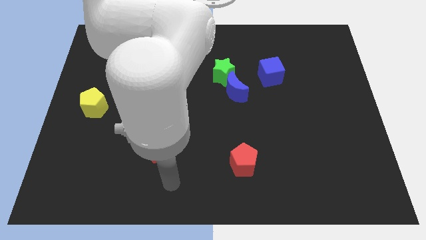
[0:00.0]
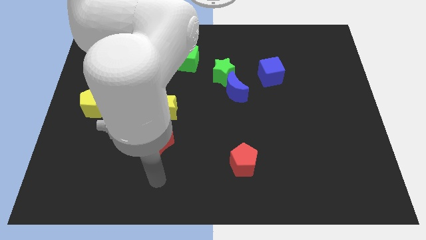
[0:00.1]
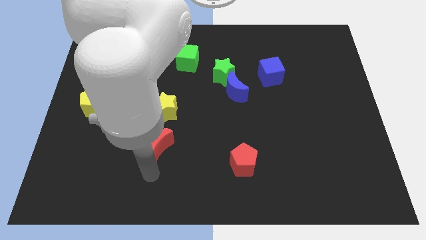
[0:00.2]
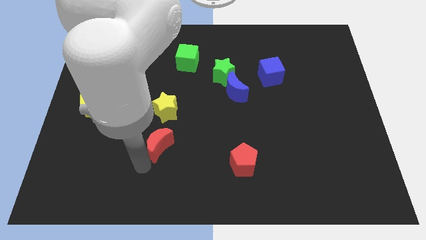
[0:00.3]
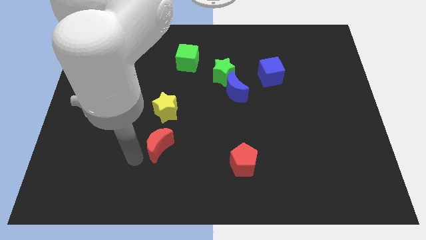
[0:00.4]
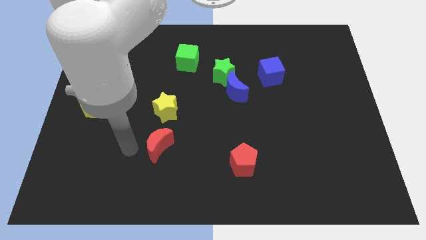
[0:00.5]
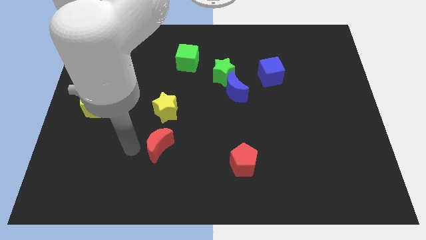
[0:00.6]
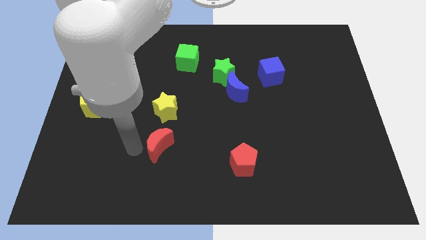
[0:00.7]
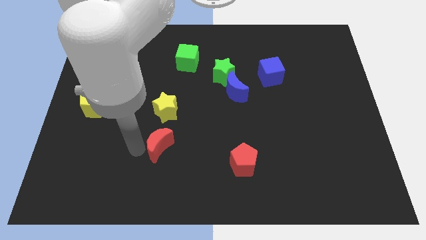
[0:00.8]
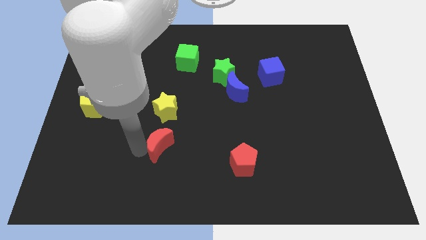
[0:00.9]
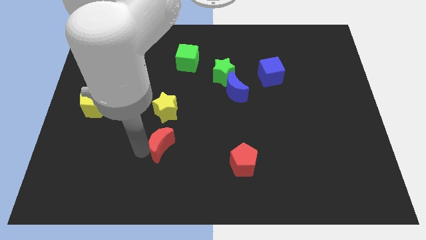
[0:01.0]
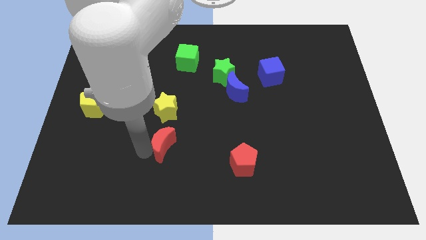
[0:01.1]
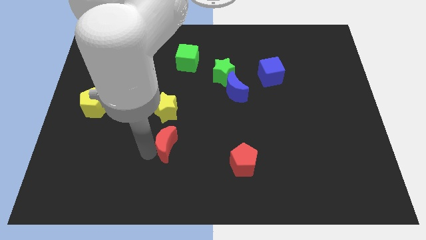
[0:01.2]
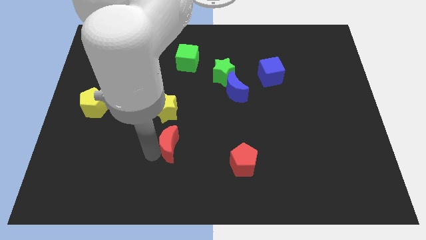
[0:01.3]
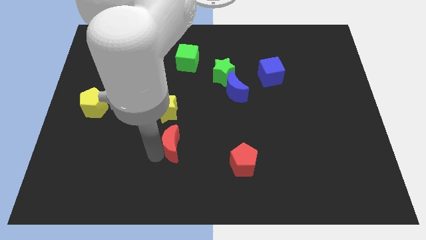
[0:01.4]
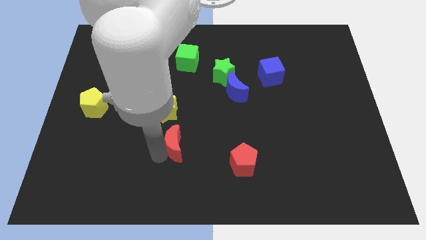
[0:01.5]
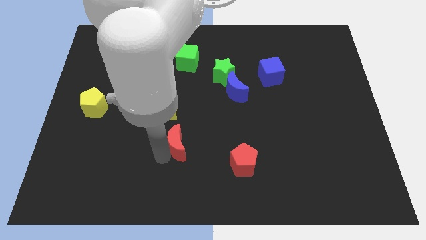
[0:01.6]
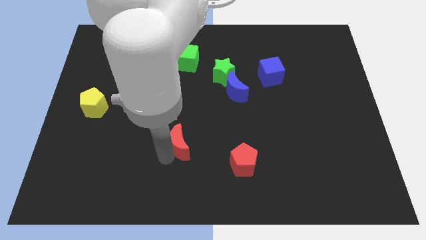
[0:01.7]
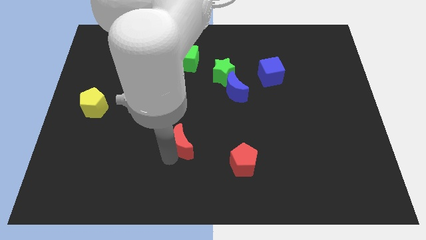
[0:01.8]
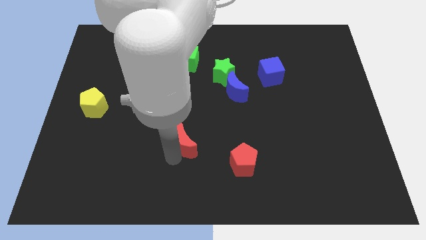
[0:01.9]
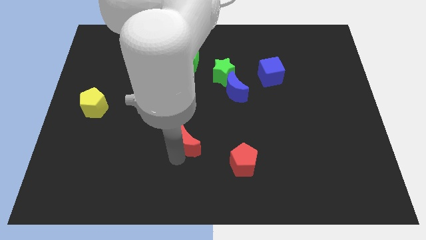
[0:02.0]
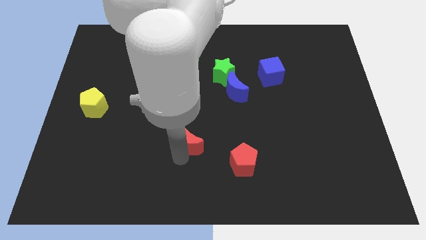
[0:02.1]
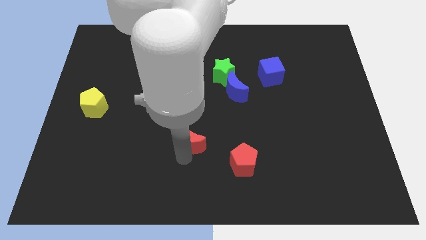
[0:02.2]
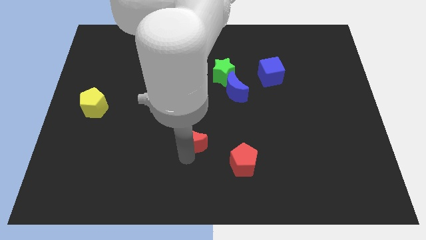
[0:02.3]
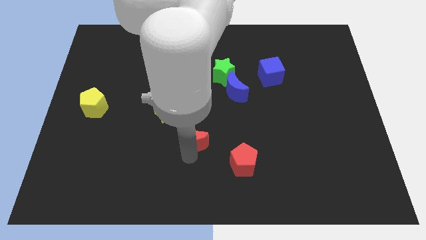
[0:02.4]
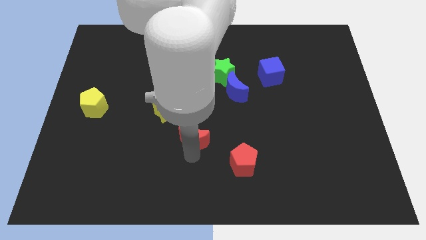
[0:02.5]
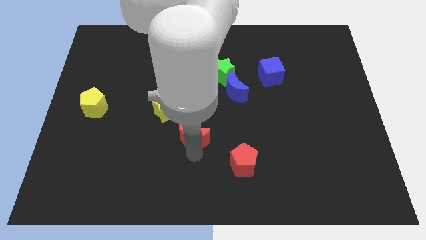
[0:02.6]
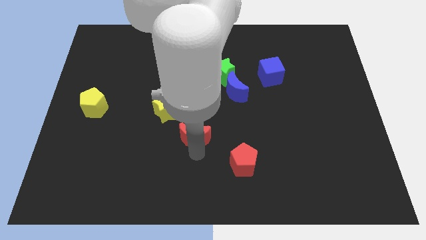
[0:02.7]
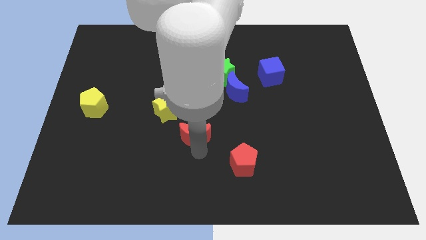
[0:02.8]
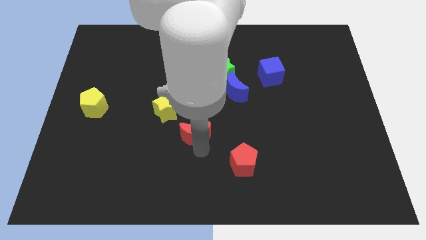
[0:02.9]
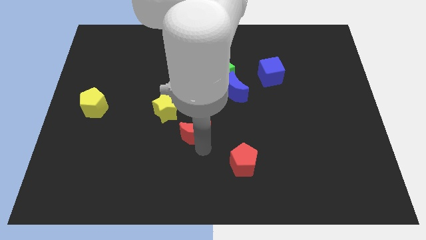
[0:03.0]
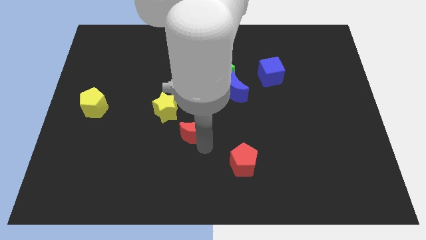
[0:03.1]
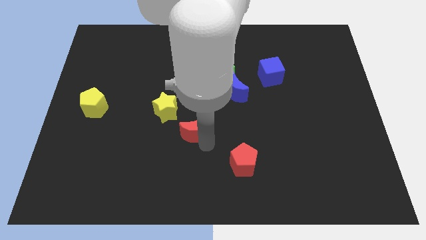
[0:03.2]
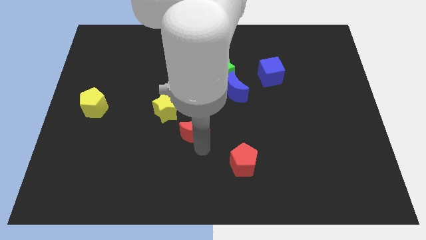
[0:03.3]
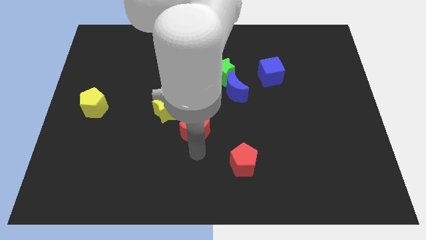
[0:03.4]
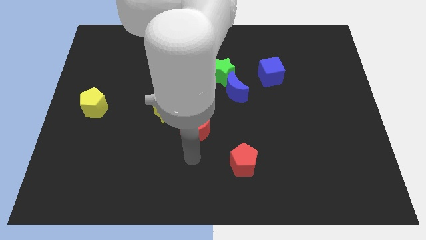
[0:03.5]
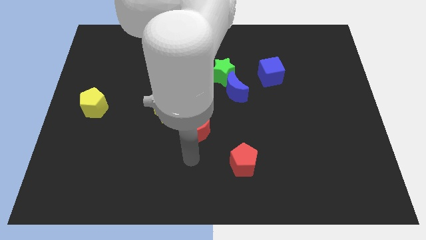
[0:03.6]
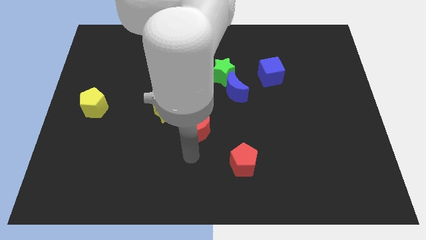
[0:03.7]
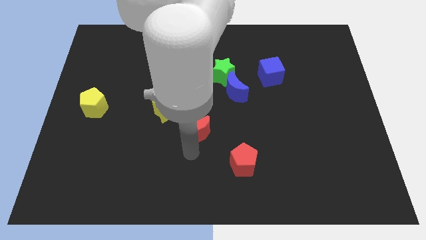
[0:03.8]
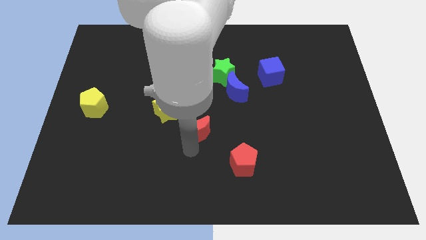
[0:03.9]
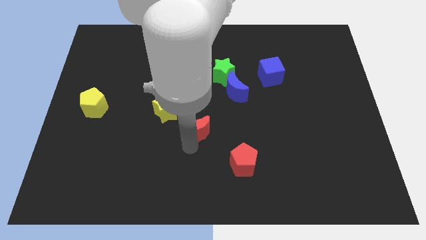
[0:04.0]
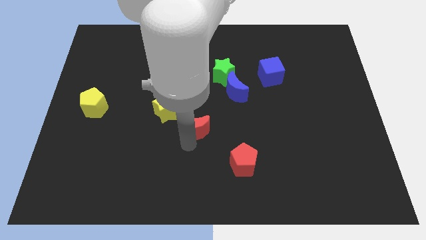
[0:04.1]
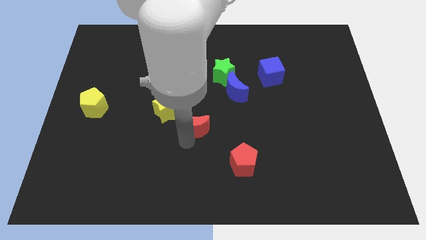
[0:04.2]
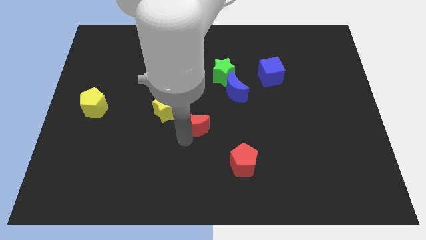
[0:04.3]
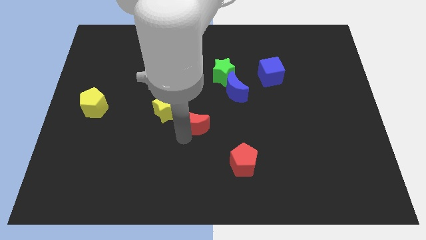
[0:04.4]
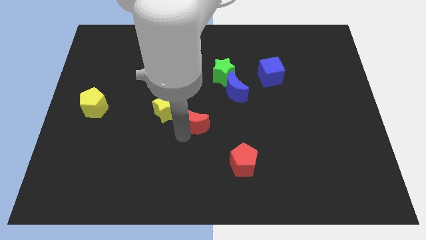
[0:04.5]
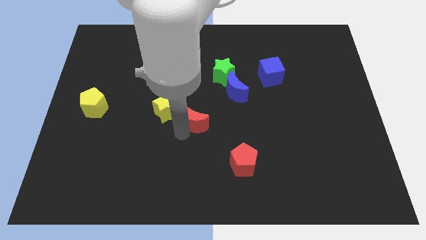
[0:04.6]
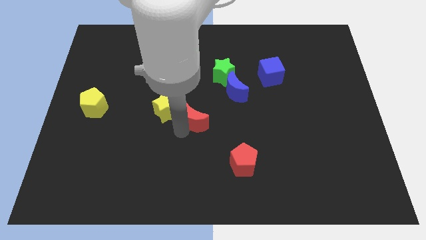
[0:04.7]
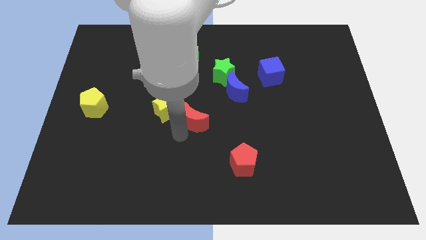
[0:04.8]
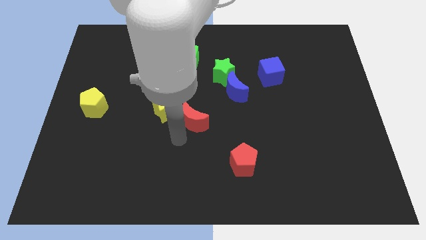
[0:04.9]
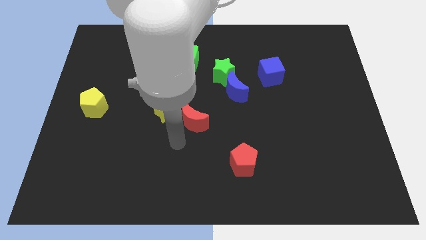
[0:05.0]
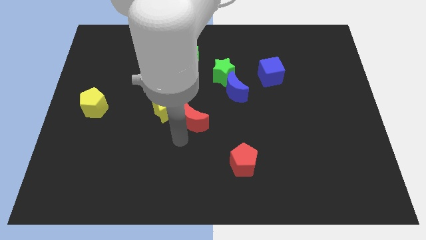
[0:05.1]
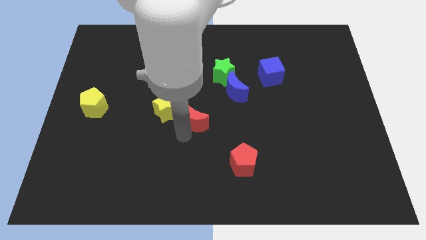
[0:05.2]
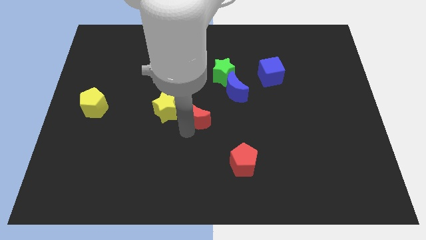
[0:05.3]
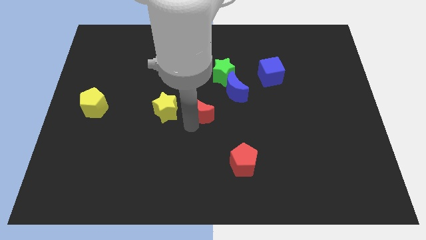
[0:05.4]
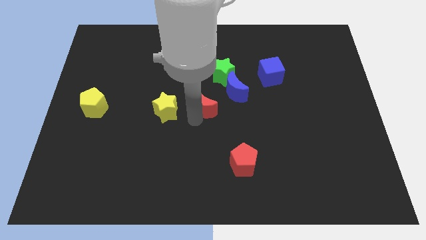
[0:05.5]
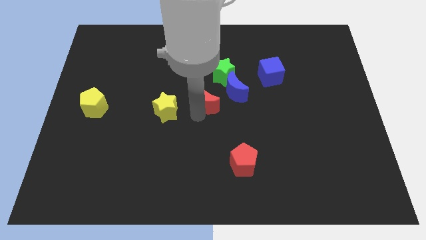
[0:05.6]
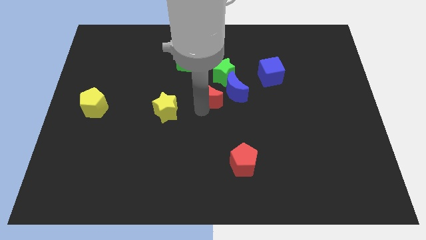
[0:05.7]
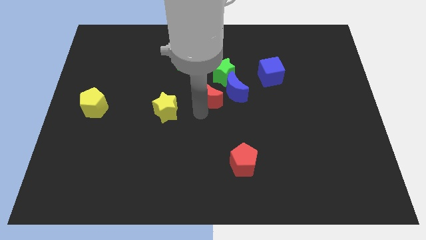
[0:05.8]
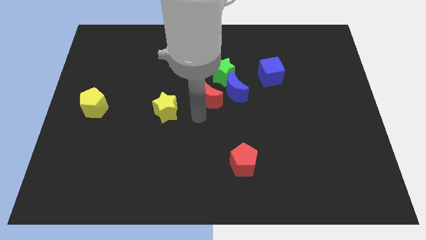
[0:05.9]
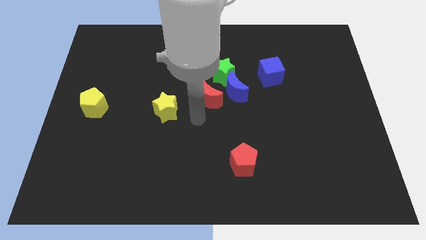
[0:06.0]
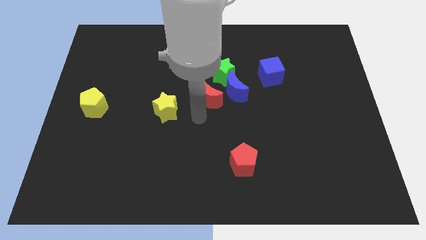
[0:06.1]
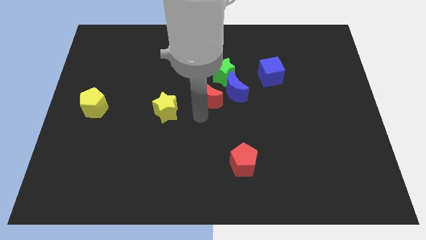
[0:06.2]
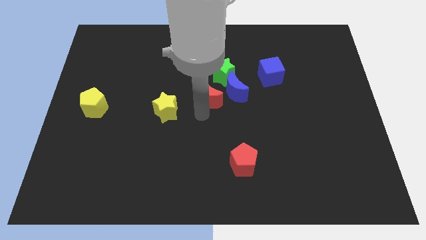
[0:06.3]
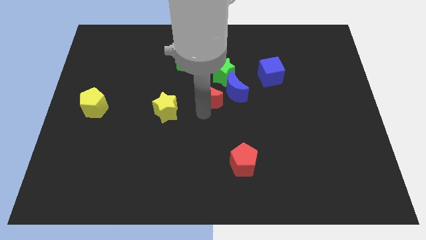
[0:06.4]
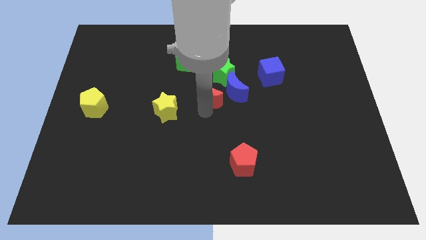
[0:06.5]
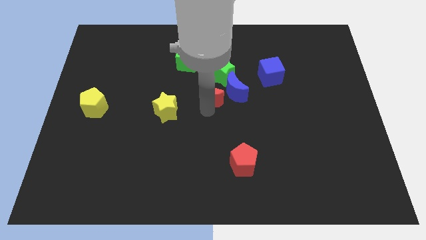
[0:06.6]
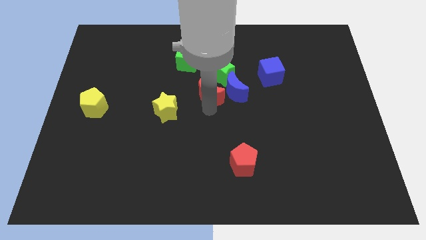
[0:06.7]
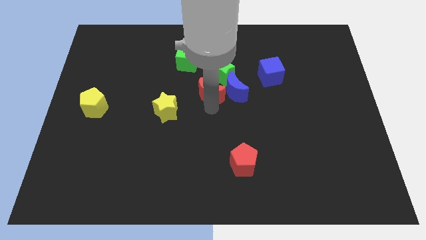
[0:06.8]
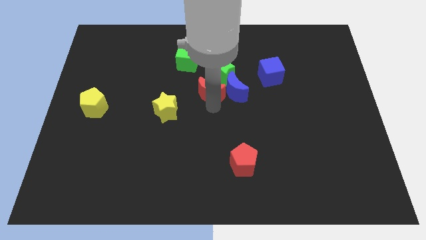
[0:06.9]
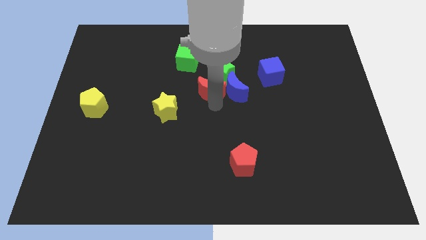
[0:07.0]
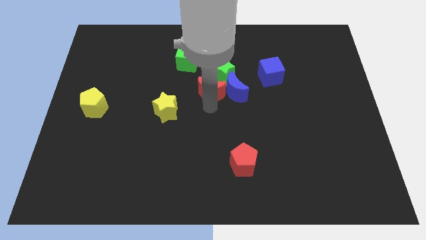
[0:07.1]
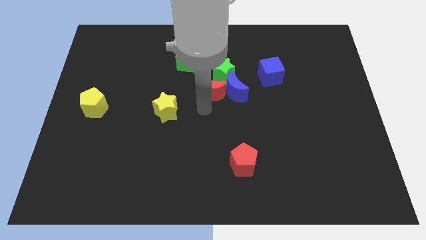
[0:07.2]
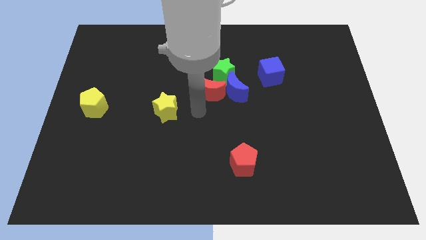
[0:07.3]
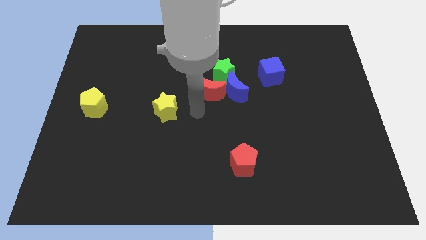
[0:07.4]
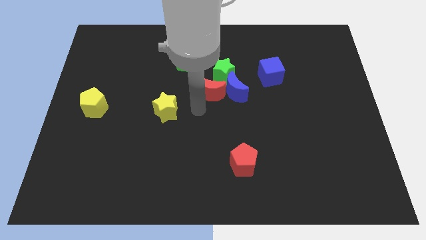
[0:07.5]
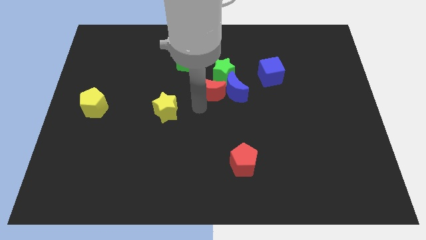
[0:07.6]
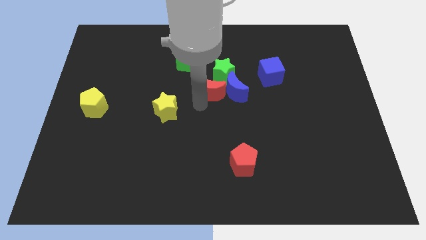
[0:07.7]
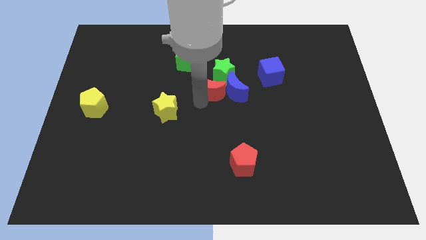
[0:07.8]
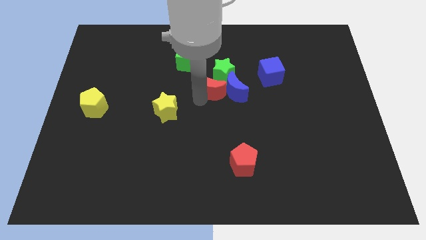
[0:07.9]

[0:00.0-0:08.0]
push the red moon towards the green star
